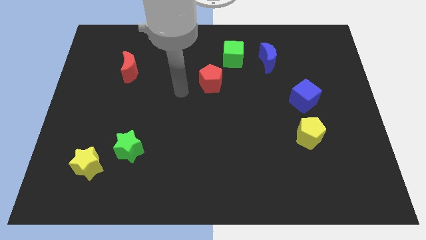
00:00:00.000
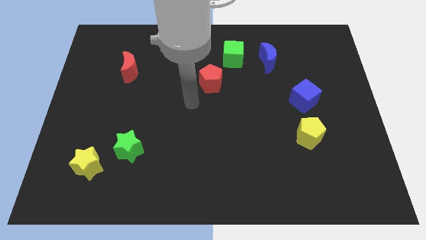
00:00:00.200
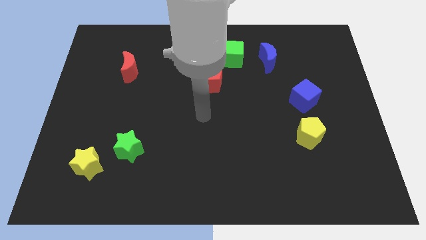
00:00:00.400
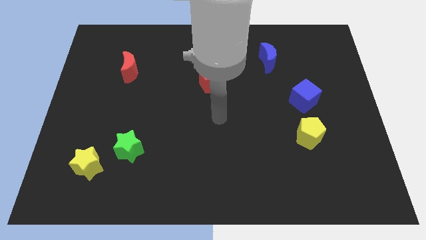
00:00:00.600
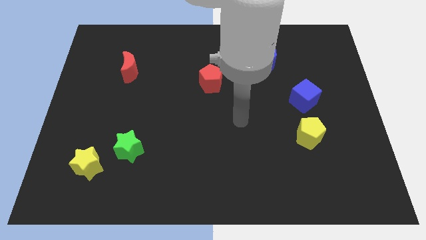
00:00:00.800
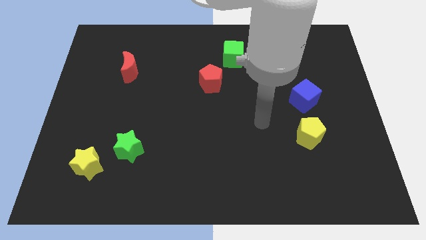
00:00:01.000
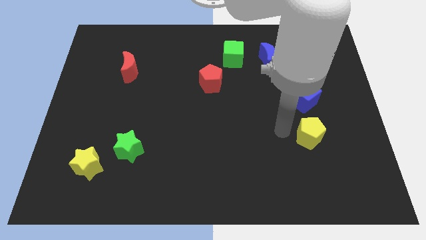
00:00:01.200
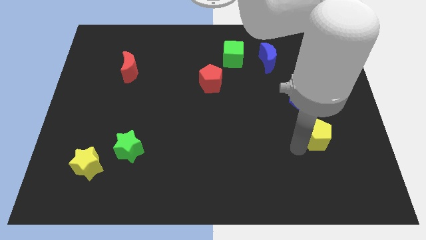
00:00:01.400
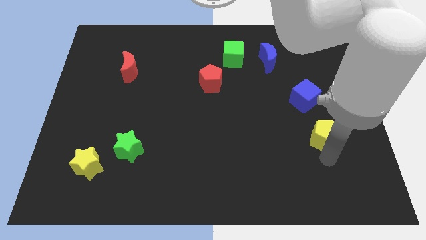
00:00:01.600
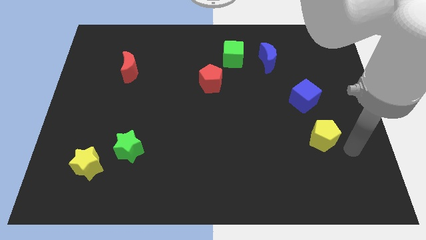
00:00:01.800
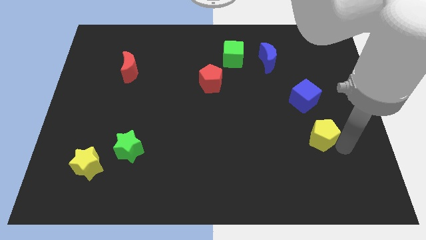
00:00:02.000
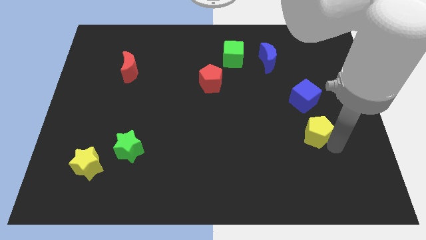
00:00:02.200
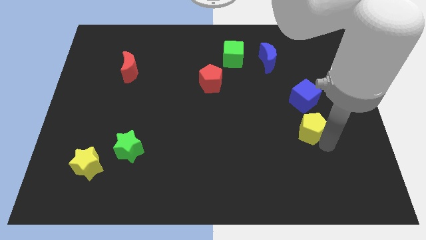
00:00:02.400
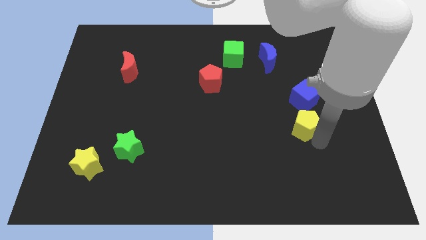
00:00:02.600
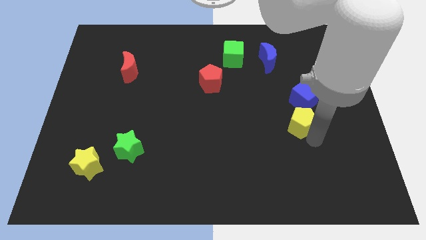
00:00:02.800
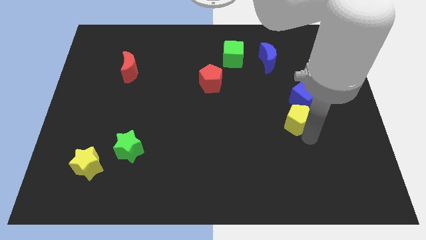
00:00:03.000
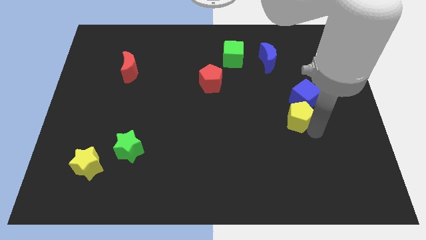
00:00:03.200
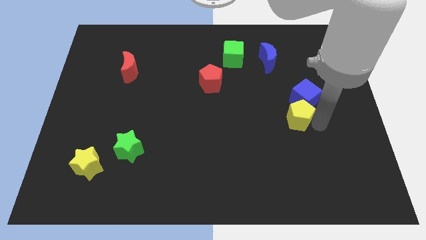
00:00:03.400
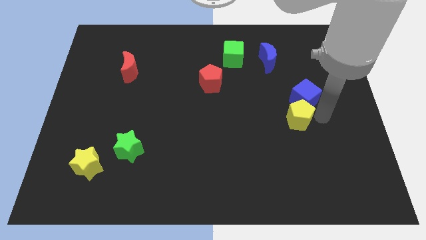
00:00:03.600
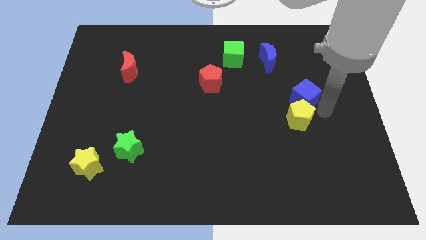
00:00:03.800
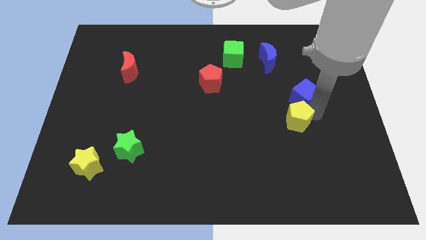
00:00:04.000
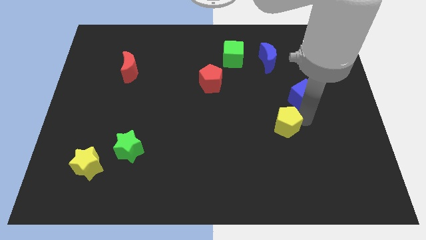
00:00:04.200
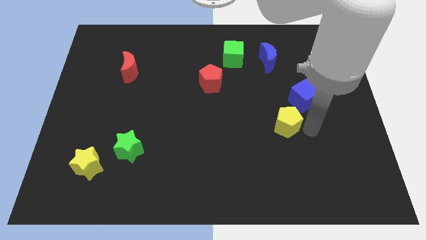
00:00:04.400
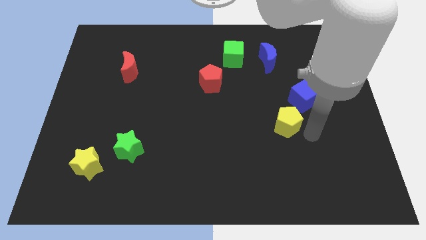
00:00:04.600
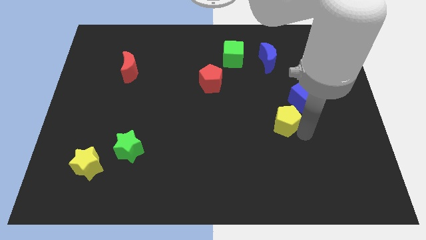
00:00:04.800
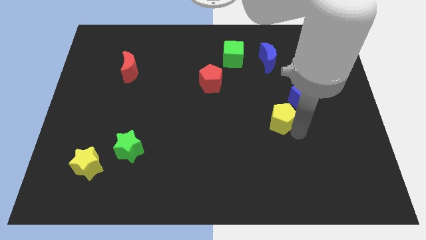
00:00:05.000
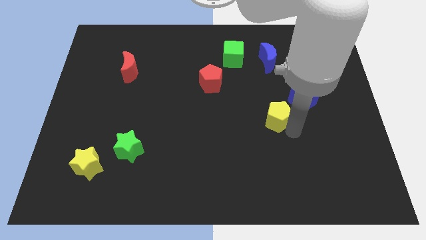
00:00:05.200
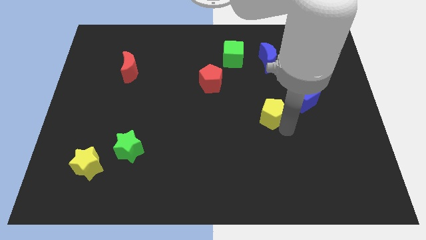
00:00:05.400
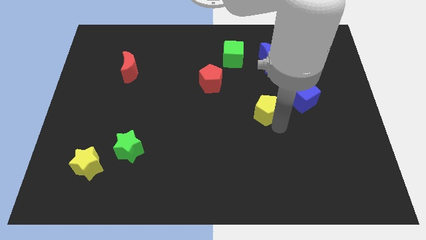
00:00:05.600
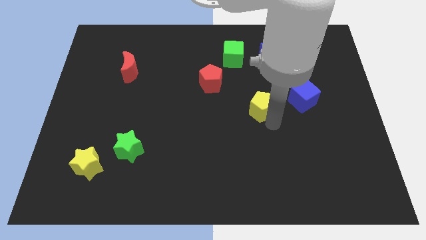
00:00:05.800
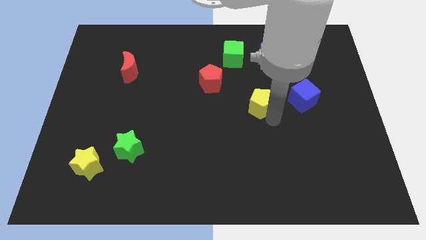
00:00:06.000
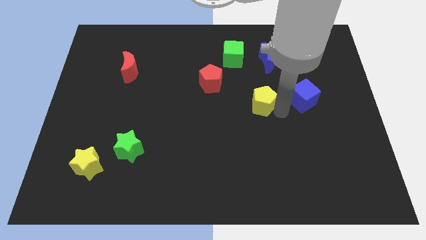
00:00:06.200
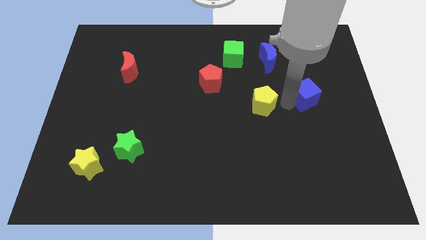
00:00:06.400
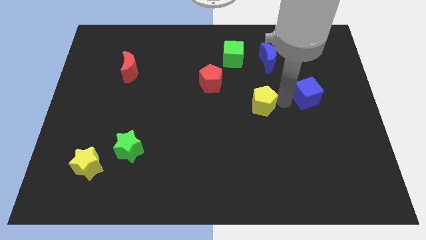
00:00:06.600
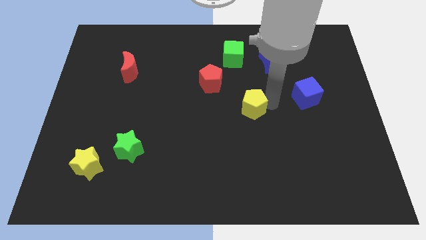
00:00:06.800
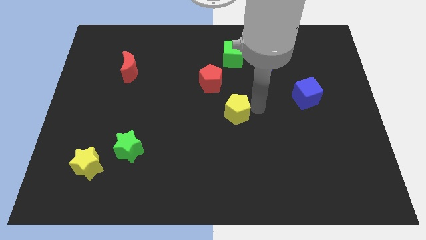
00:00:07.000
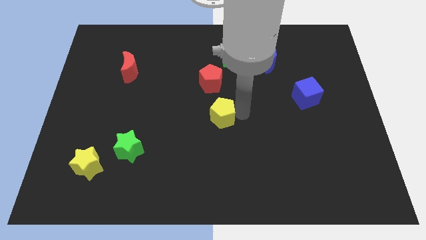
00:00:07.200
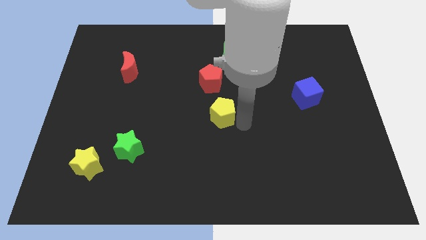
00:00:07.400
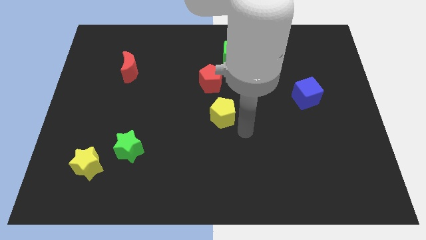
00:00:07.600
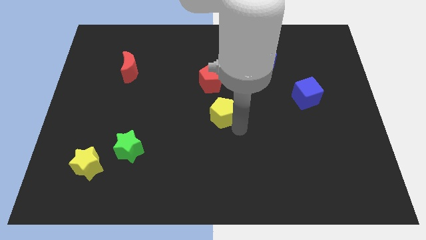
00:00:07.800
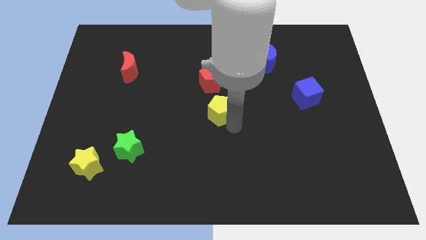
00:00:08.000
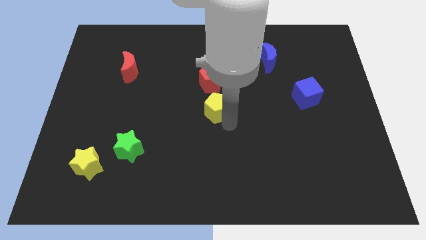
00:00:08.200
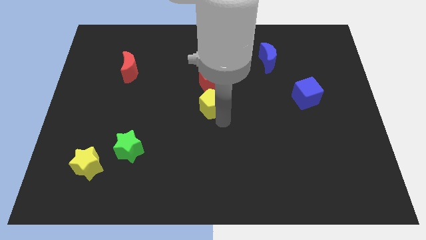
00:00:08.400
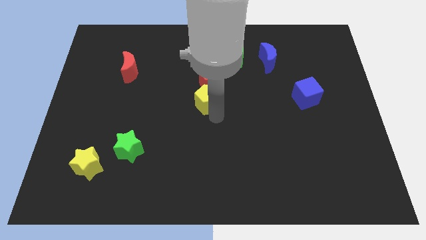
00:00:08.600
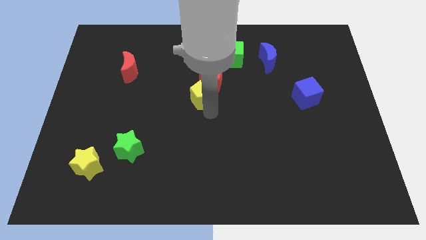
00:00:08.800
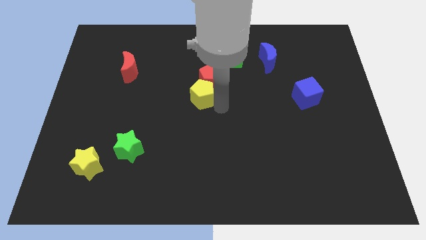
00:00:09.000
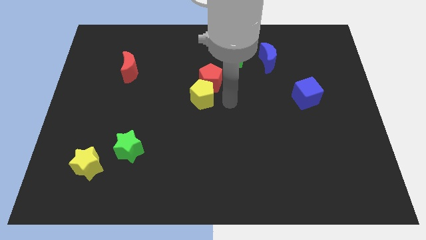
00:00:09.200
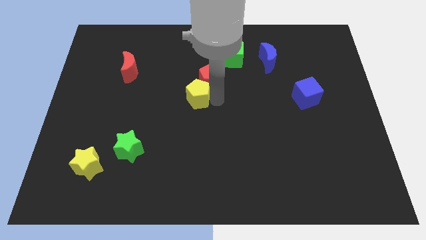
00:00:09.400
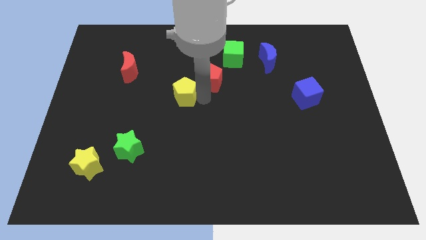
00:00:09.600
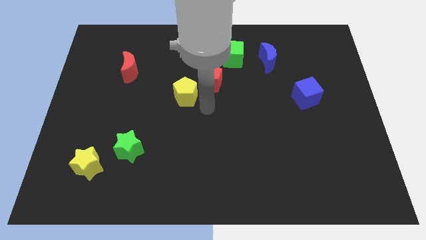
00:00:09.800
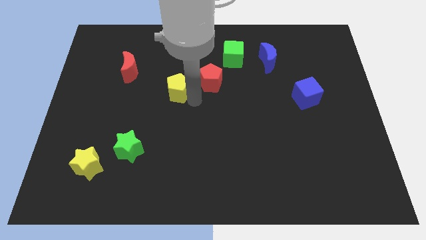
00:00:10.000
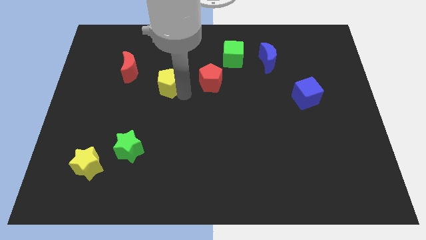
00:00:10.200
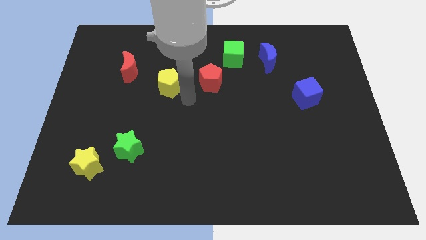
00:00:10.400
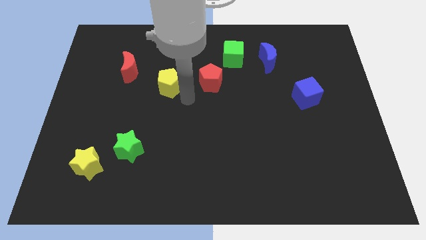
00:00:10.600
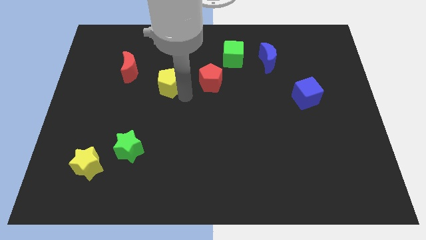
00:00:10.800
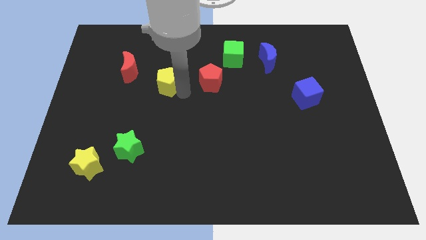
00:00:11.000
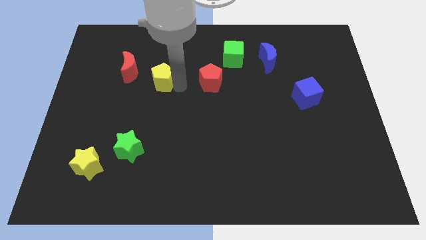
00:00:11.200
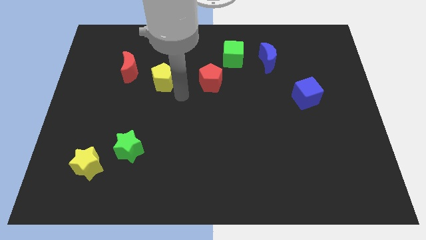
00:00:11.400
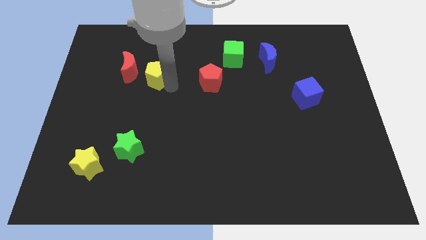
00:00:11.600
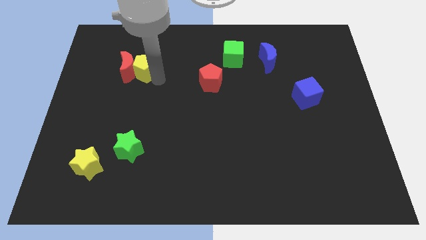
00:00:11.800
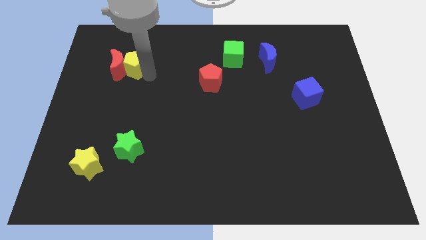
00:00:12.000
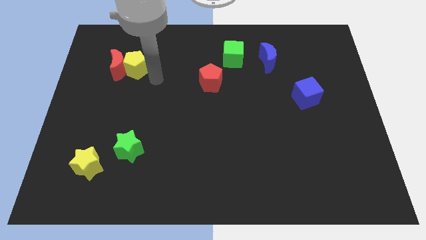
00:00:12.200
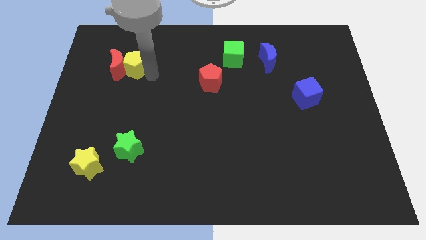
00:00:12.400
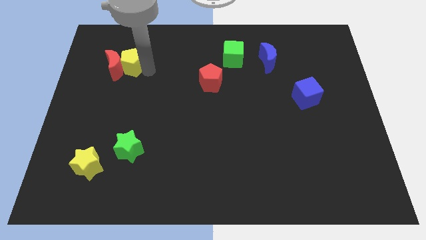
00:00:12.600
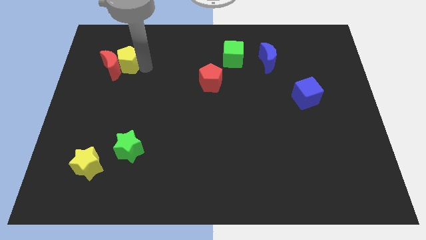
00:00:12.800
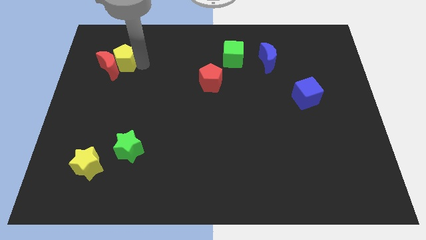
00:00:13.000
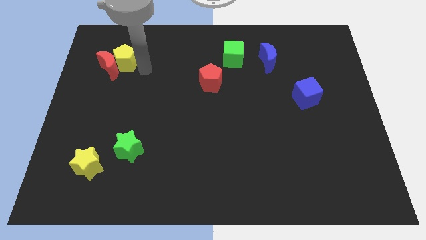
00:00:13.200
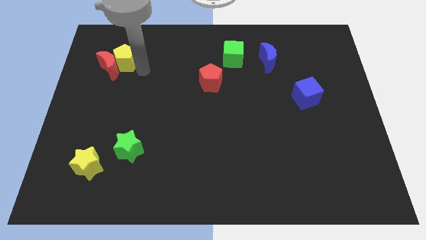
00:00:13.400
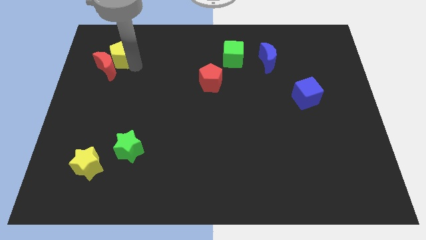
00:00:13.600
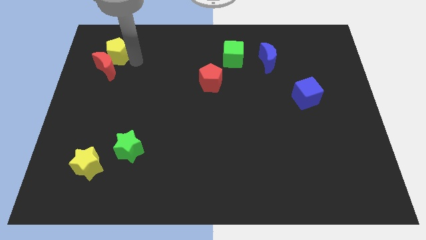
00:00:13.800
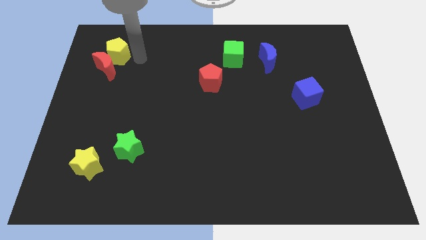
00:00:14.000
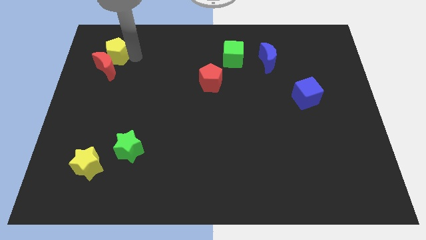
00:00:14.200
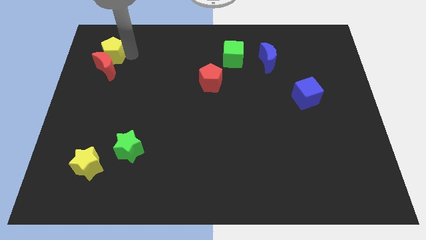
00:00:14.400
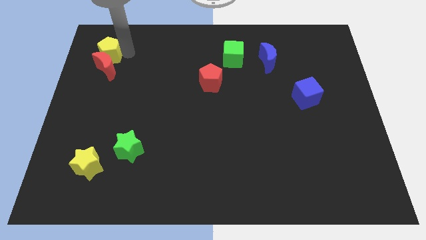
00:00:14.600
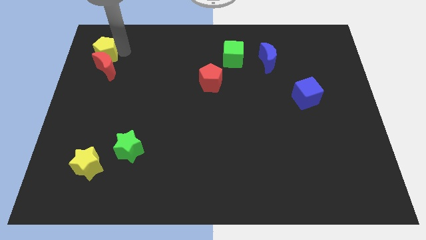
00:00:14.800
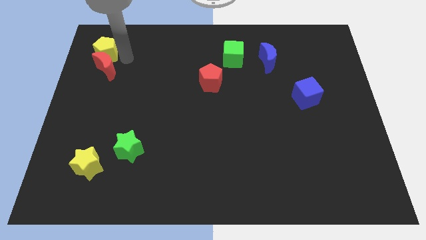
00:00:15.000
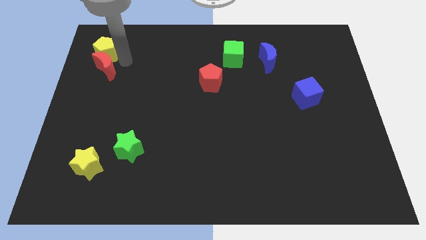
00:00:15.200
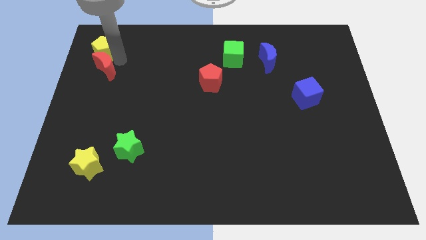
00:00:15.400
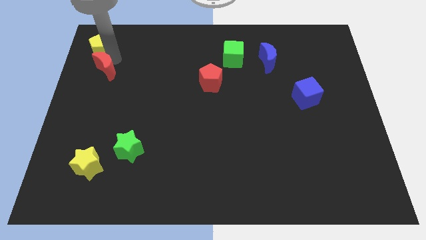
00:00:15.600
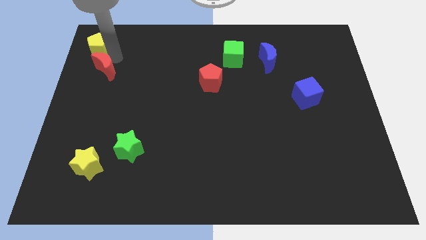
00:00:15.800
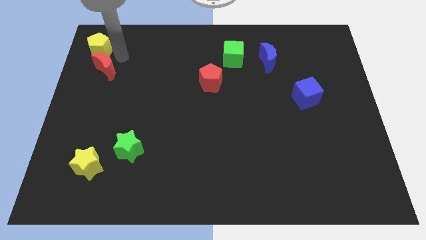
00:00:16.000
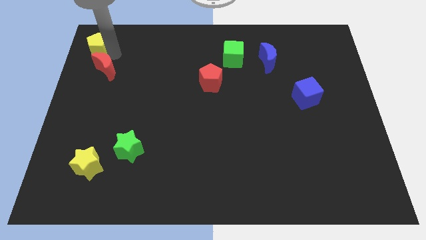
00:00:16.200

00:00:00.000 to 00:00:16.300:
move the yellow pentagon to the top left of the board
